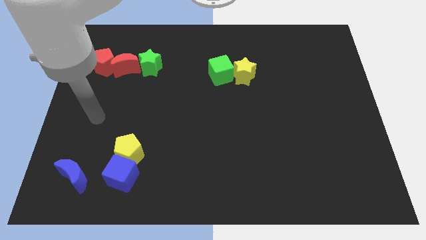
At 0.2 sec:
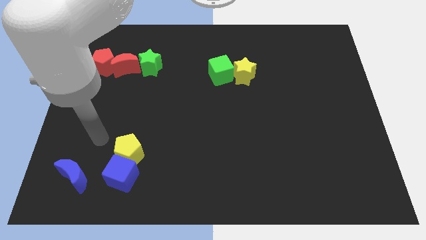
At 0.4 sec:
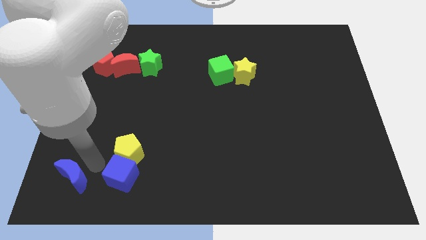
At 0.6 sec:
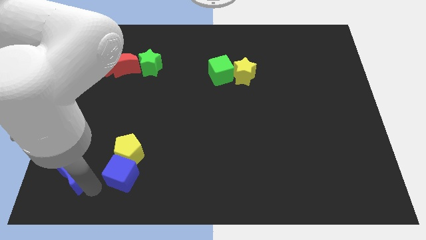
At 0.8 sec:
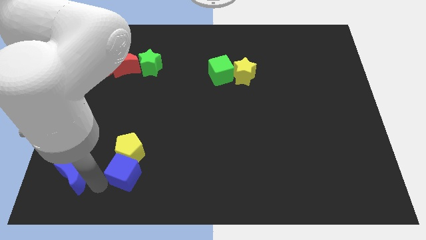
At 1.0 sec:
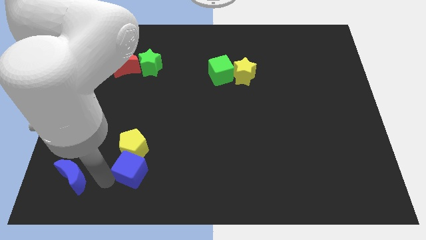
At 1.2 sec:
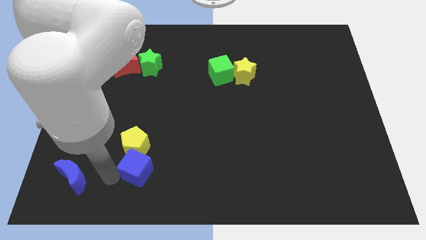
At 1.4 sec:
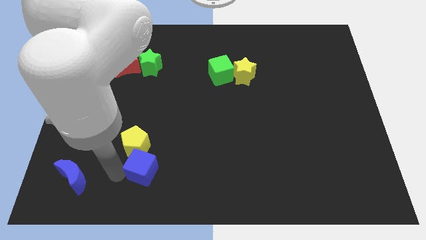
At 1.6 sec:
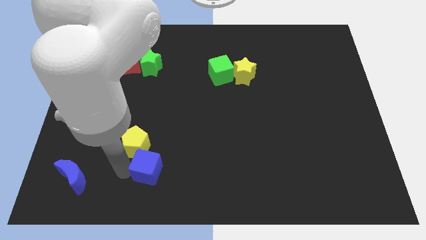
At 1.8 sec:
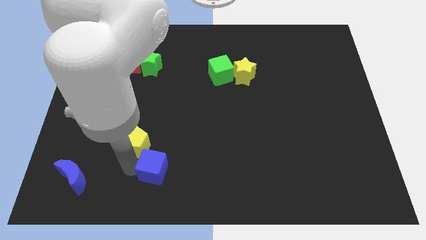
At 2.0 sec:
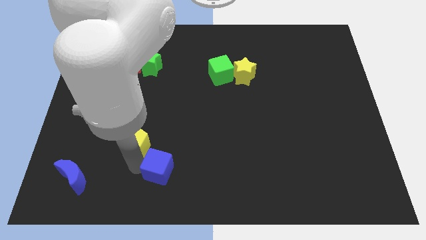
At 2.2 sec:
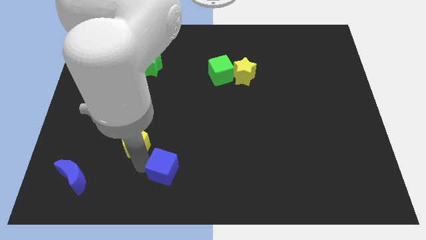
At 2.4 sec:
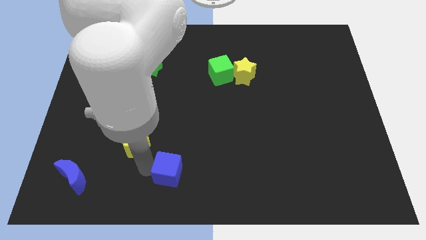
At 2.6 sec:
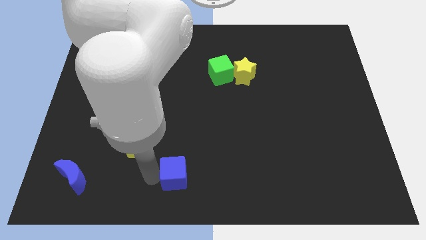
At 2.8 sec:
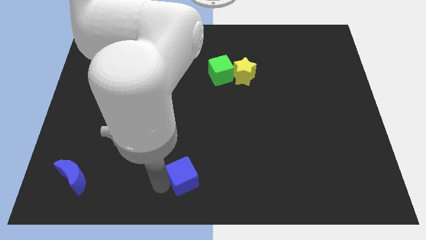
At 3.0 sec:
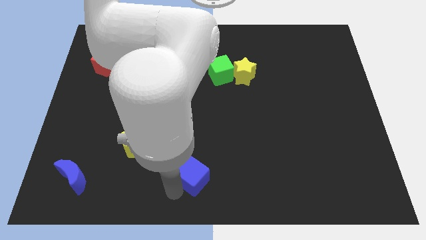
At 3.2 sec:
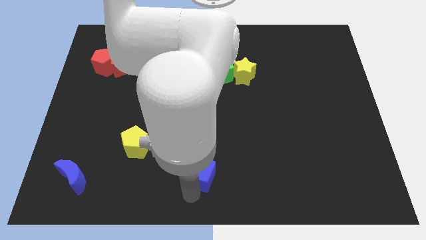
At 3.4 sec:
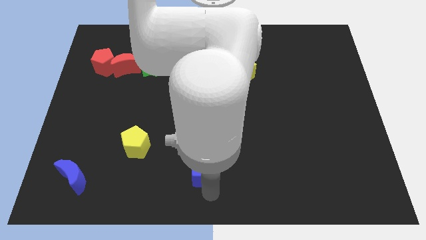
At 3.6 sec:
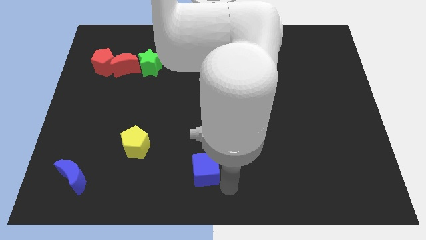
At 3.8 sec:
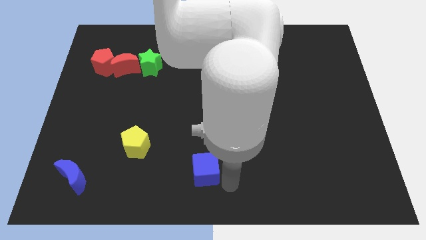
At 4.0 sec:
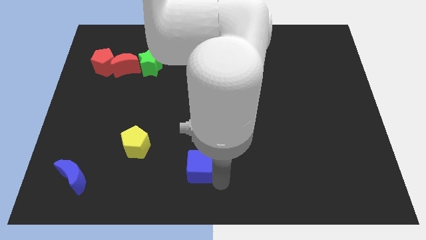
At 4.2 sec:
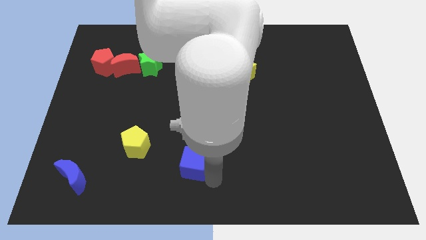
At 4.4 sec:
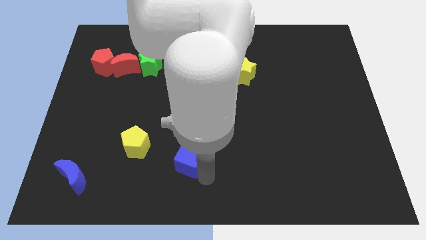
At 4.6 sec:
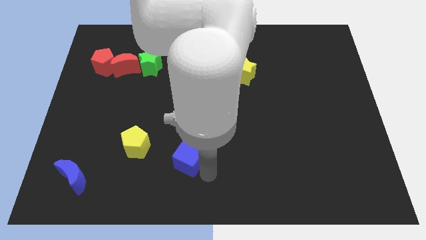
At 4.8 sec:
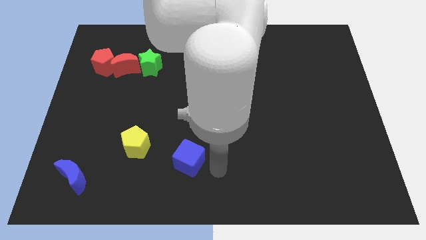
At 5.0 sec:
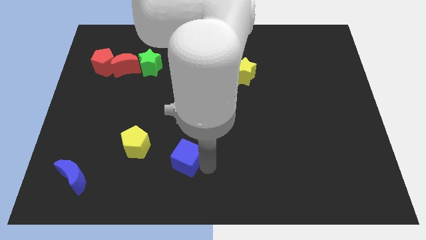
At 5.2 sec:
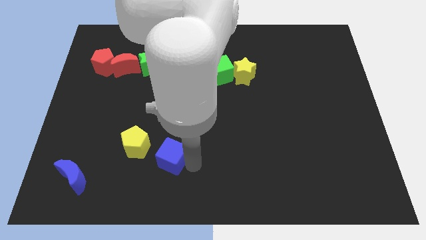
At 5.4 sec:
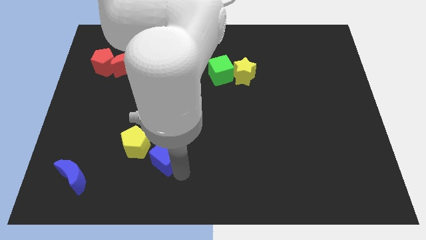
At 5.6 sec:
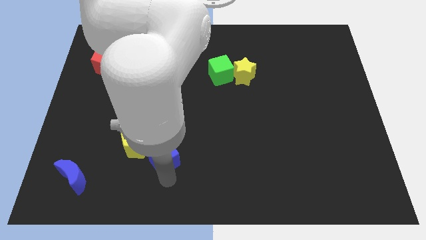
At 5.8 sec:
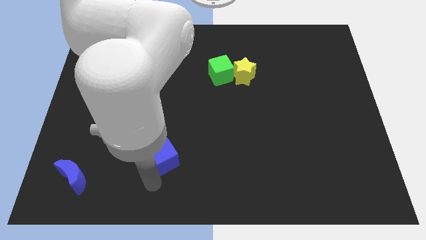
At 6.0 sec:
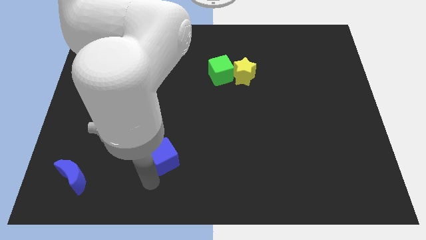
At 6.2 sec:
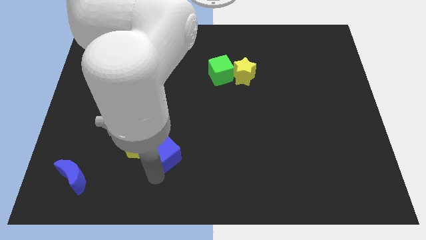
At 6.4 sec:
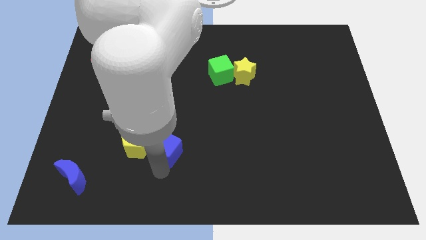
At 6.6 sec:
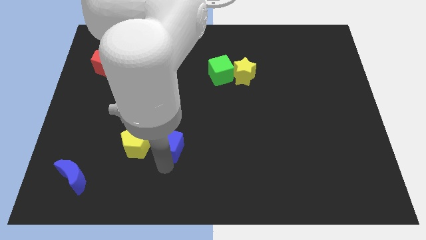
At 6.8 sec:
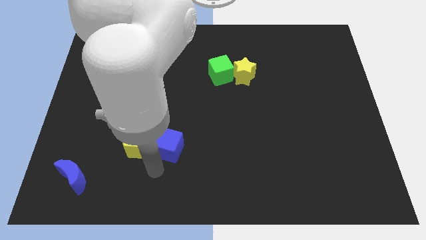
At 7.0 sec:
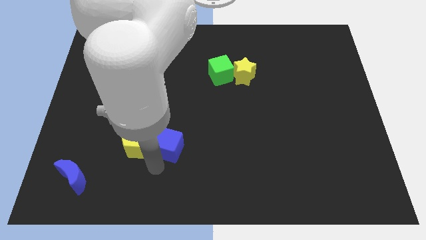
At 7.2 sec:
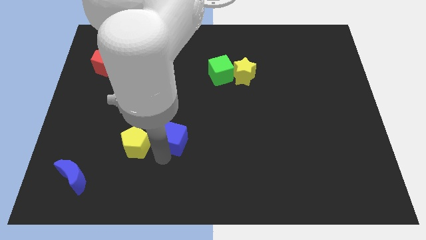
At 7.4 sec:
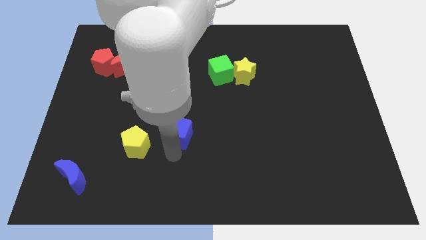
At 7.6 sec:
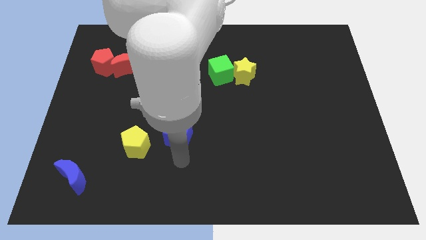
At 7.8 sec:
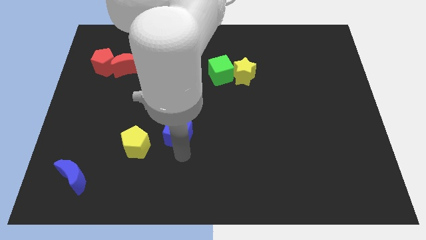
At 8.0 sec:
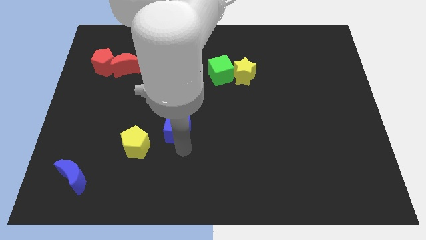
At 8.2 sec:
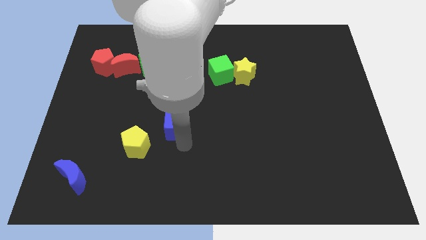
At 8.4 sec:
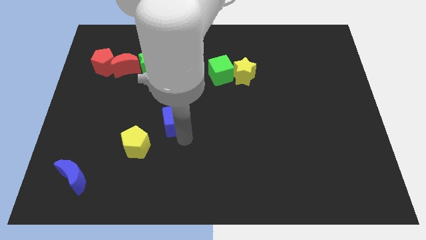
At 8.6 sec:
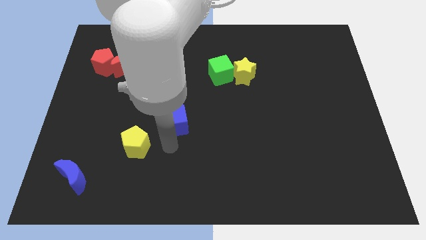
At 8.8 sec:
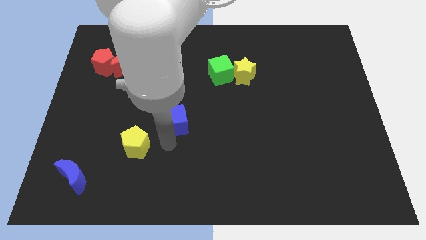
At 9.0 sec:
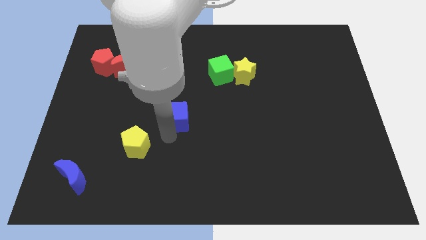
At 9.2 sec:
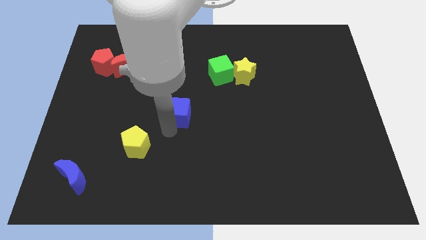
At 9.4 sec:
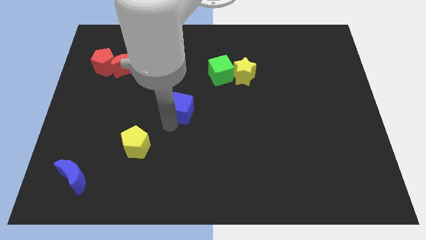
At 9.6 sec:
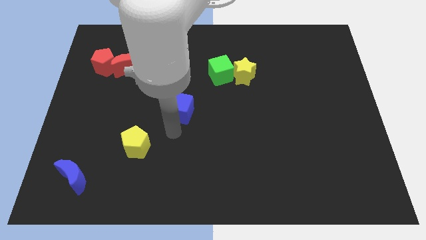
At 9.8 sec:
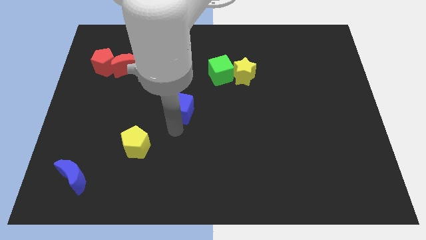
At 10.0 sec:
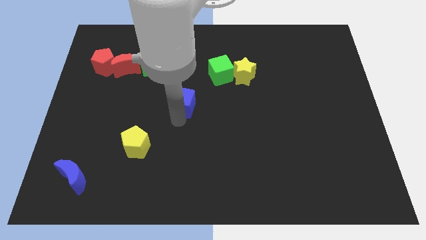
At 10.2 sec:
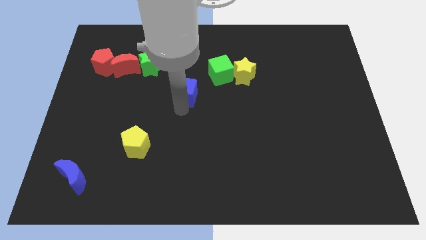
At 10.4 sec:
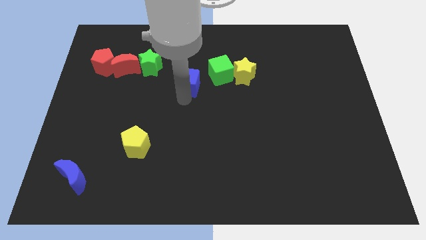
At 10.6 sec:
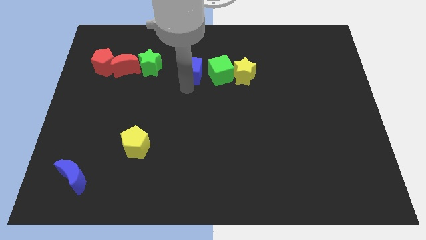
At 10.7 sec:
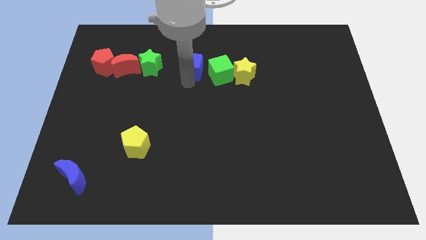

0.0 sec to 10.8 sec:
move the blue cube to the top left side of the green cube

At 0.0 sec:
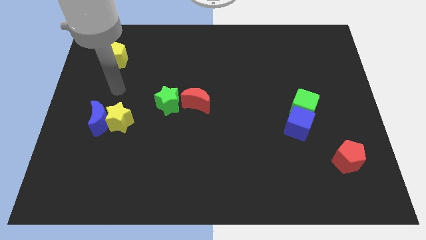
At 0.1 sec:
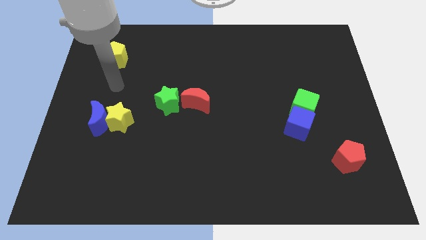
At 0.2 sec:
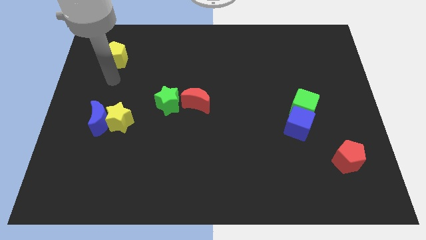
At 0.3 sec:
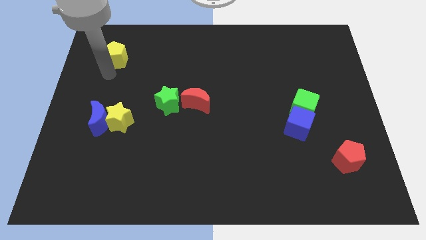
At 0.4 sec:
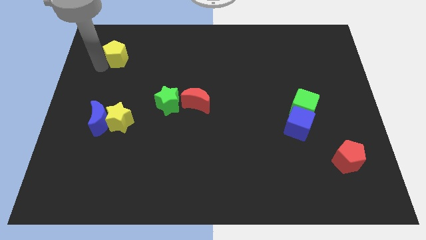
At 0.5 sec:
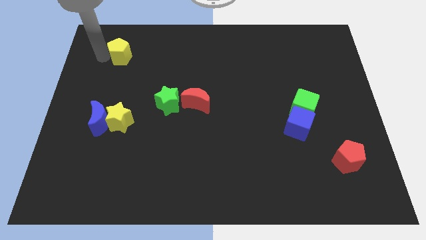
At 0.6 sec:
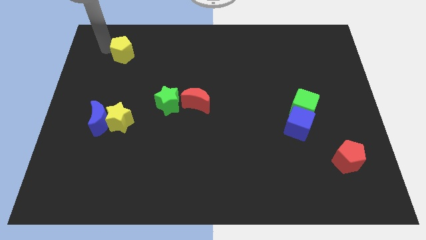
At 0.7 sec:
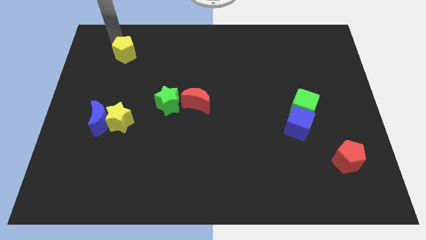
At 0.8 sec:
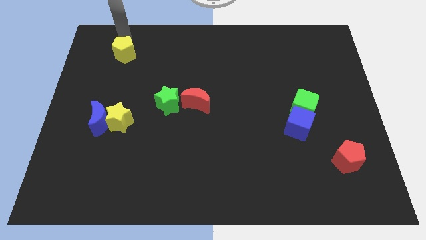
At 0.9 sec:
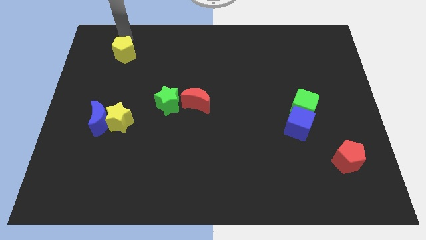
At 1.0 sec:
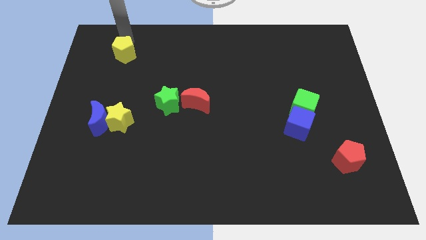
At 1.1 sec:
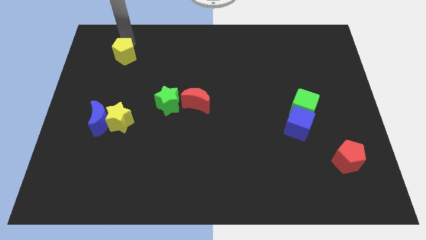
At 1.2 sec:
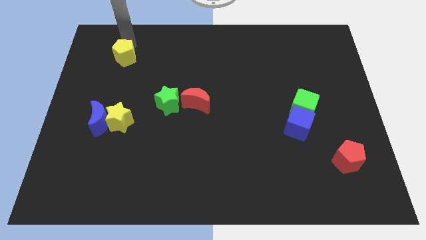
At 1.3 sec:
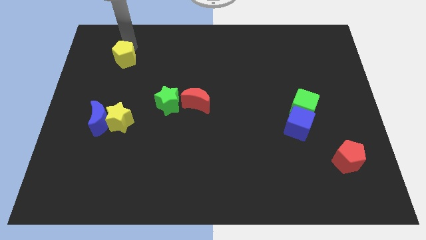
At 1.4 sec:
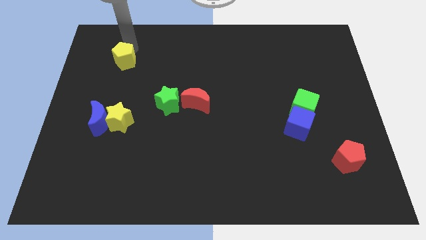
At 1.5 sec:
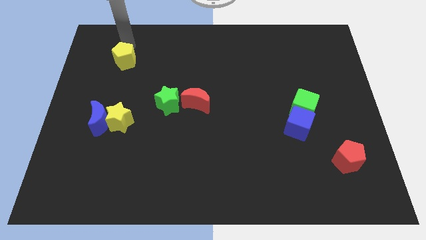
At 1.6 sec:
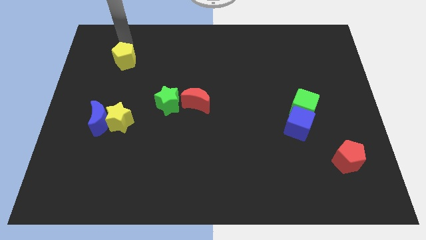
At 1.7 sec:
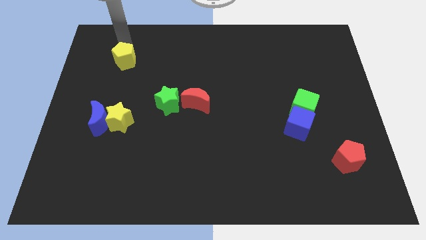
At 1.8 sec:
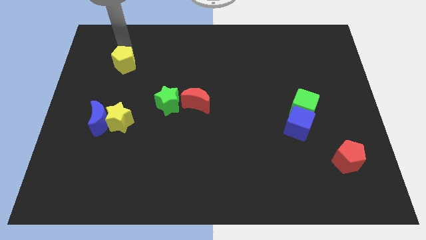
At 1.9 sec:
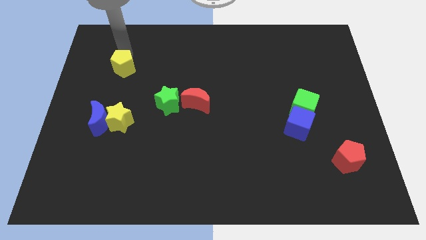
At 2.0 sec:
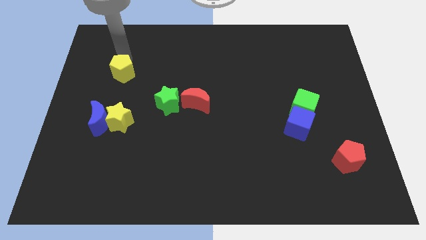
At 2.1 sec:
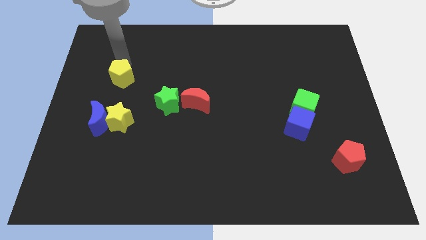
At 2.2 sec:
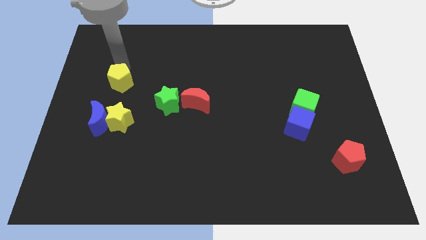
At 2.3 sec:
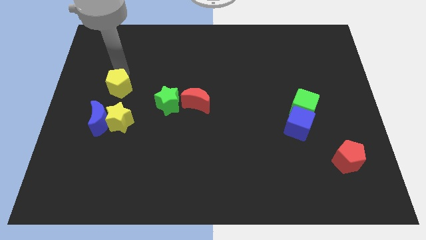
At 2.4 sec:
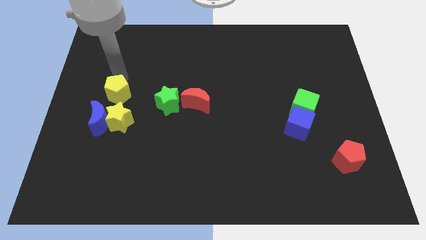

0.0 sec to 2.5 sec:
slide the yellow pentagon to the top right side of the blue moon
